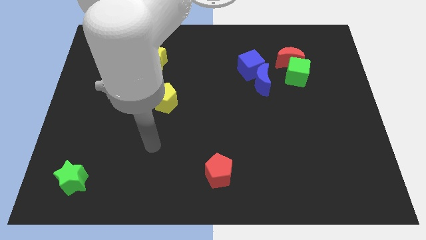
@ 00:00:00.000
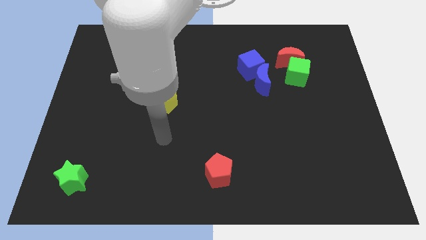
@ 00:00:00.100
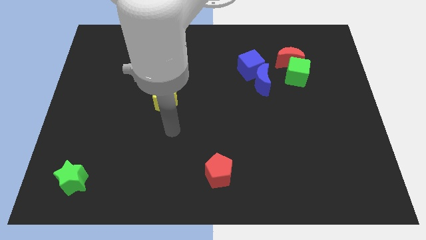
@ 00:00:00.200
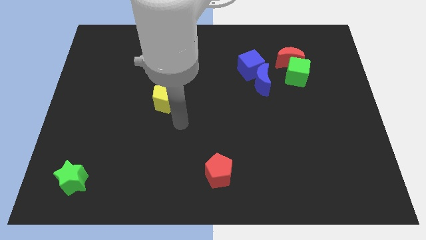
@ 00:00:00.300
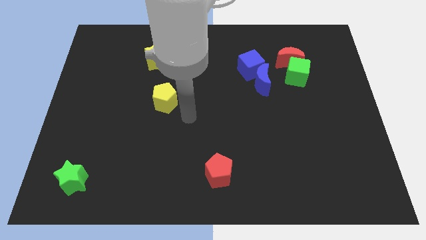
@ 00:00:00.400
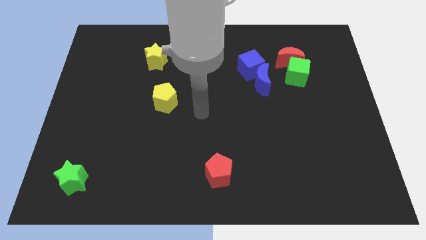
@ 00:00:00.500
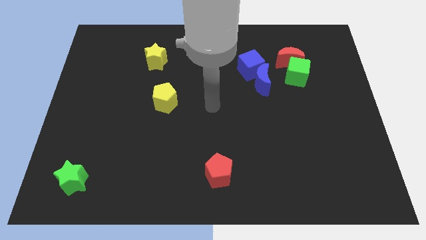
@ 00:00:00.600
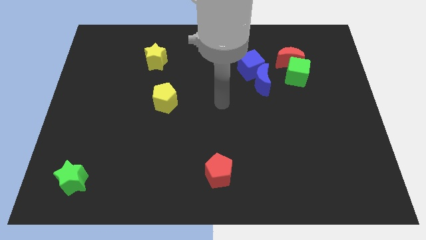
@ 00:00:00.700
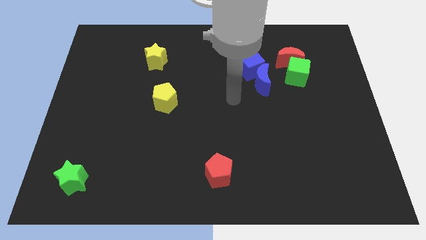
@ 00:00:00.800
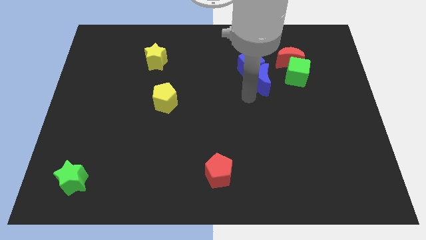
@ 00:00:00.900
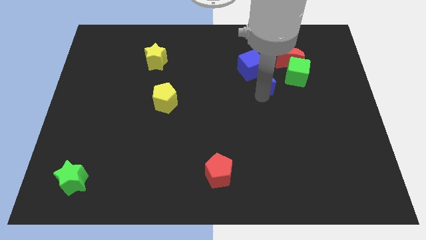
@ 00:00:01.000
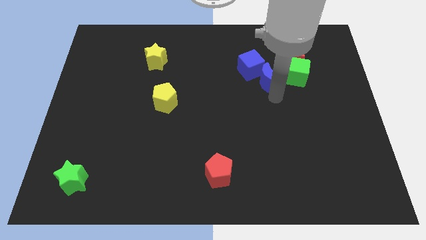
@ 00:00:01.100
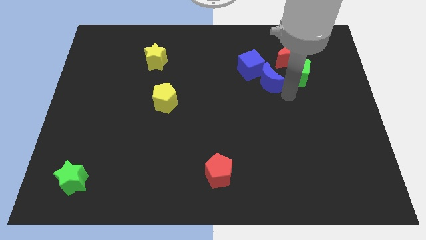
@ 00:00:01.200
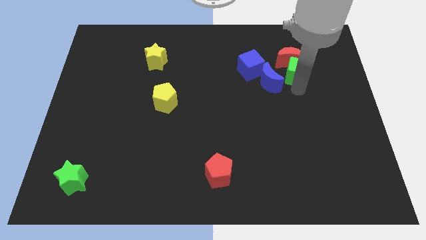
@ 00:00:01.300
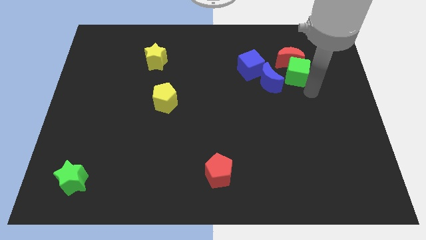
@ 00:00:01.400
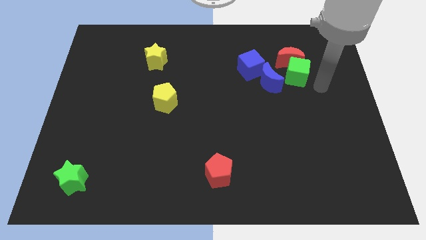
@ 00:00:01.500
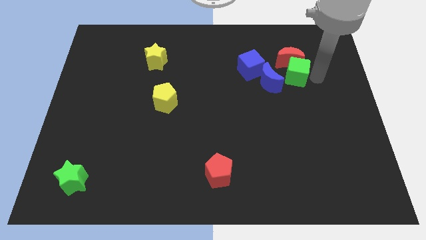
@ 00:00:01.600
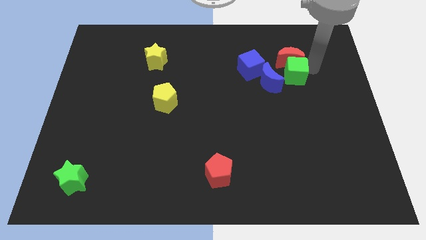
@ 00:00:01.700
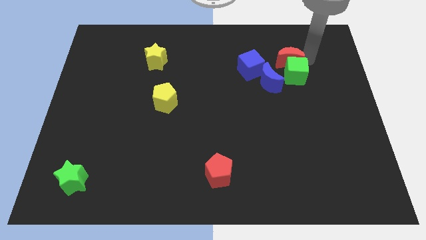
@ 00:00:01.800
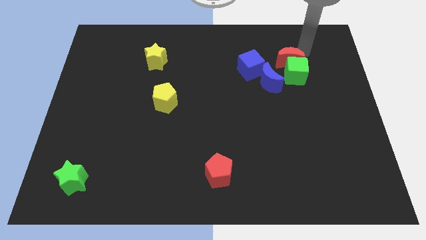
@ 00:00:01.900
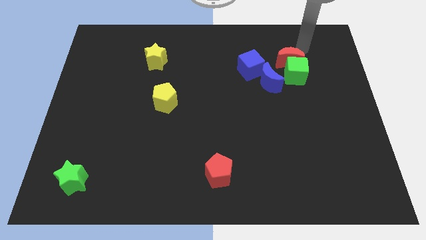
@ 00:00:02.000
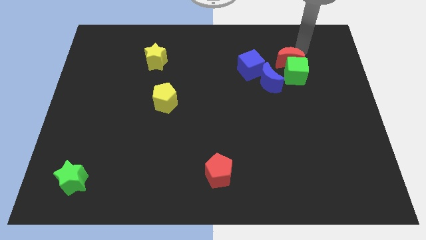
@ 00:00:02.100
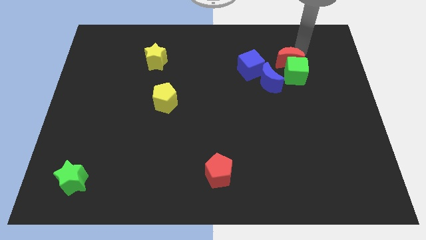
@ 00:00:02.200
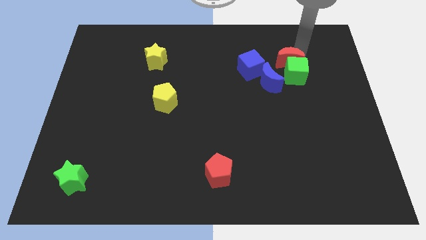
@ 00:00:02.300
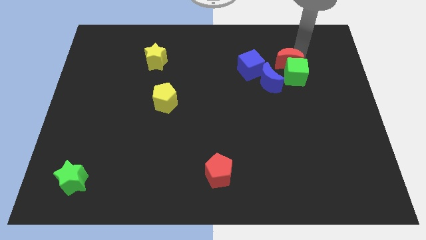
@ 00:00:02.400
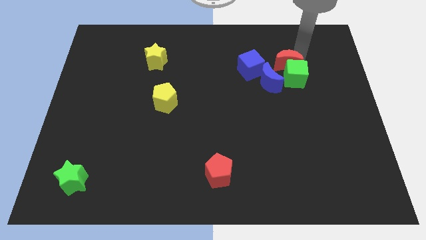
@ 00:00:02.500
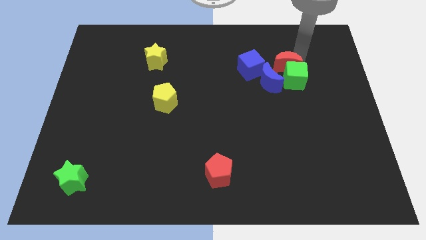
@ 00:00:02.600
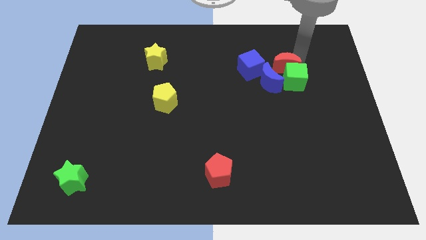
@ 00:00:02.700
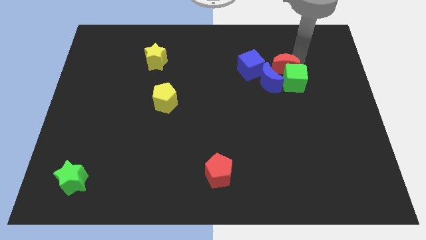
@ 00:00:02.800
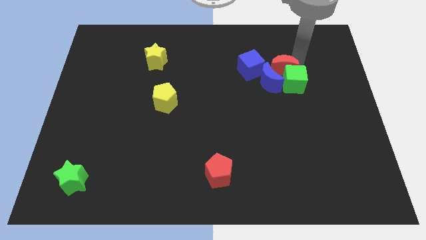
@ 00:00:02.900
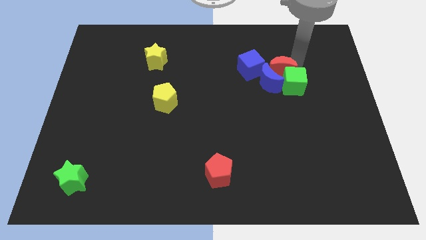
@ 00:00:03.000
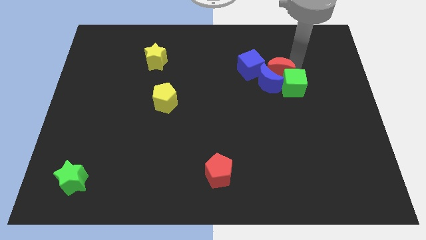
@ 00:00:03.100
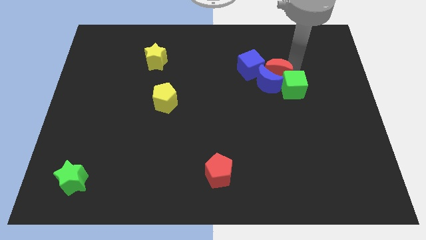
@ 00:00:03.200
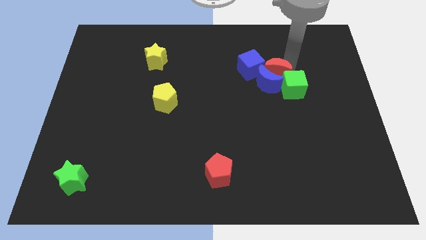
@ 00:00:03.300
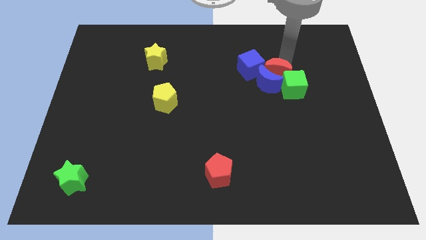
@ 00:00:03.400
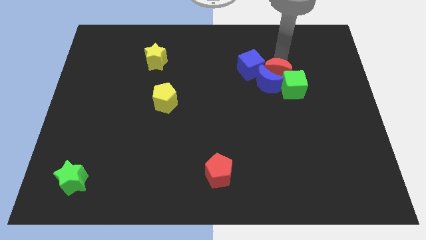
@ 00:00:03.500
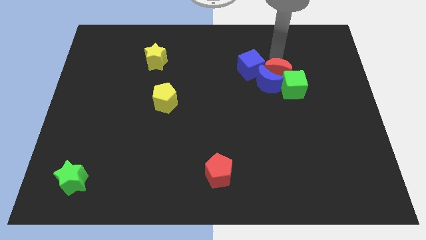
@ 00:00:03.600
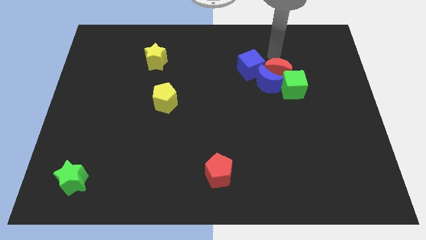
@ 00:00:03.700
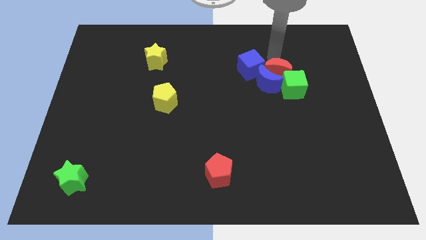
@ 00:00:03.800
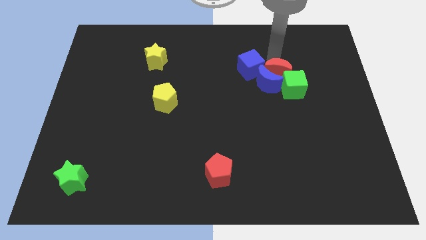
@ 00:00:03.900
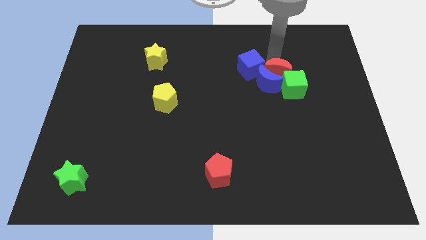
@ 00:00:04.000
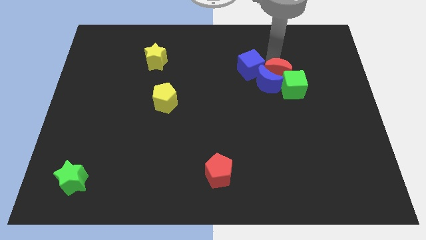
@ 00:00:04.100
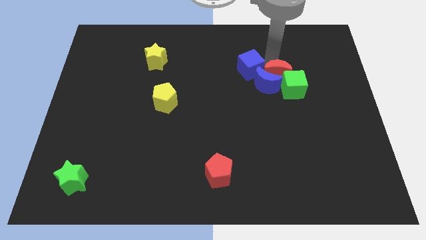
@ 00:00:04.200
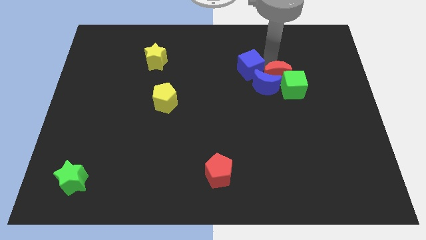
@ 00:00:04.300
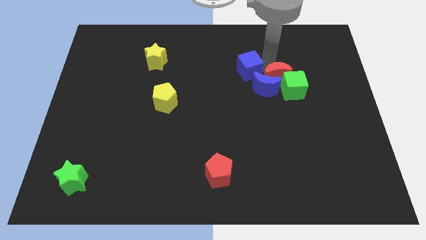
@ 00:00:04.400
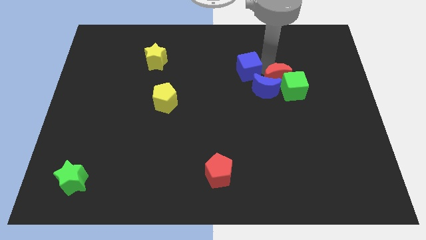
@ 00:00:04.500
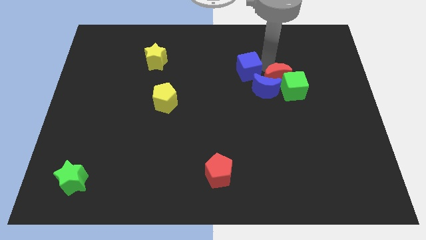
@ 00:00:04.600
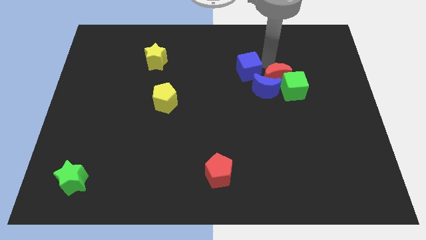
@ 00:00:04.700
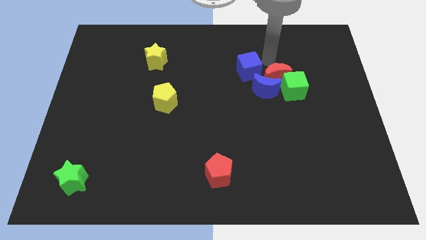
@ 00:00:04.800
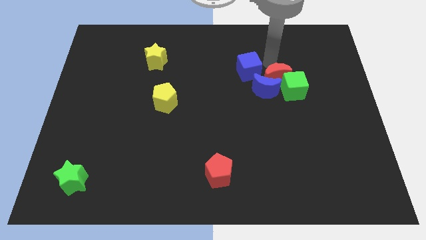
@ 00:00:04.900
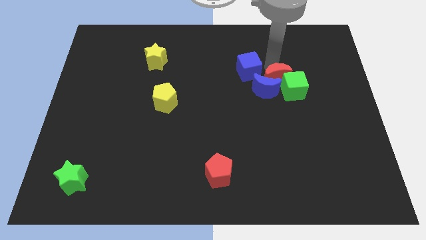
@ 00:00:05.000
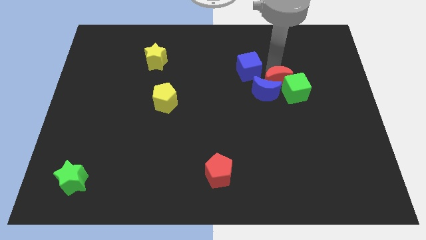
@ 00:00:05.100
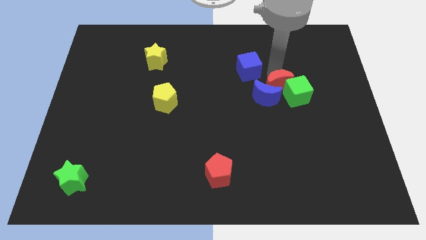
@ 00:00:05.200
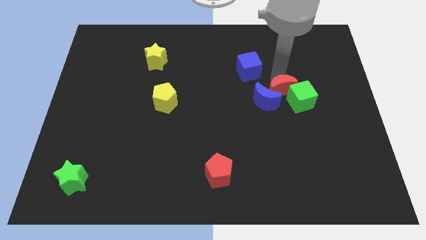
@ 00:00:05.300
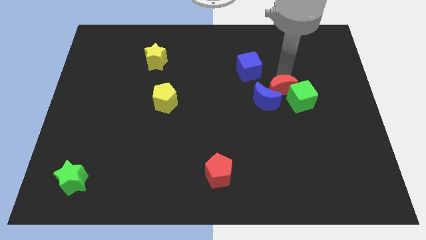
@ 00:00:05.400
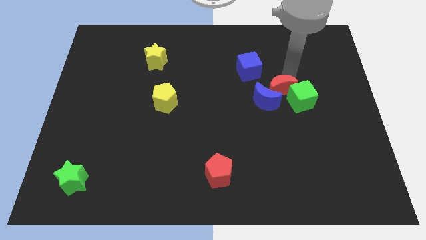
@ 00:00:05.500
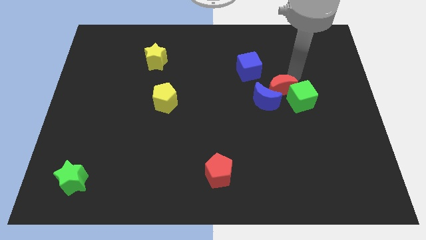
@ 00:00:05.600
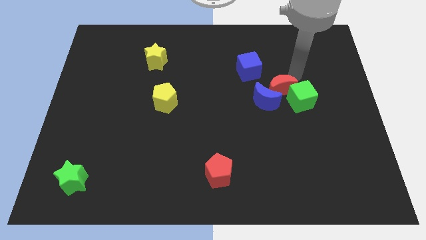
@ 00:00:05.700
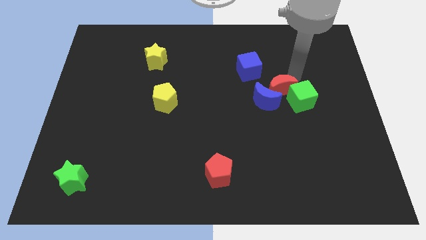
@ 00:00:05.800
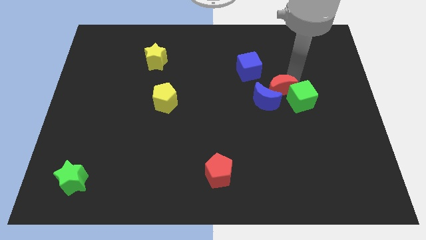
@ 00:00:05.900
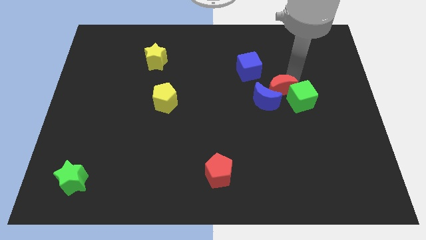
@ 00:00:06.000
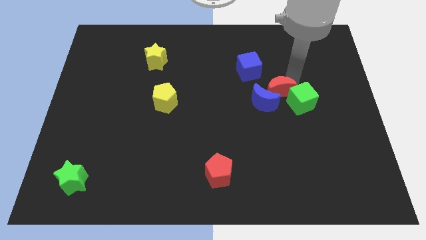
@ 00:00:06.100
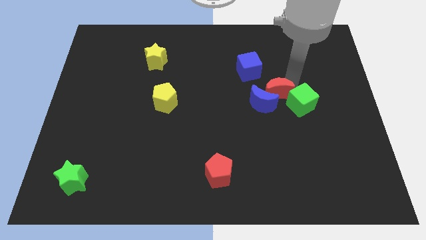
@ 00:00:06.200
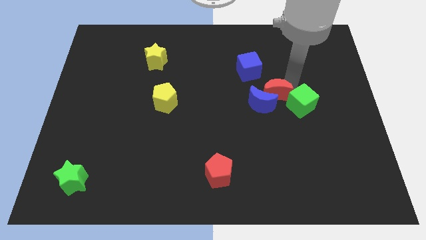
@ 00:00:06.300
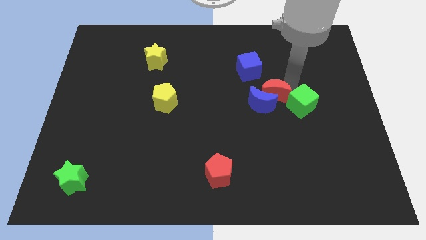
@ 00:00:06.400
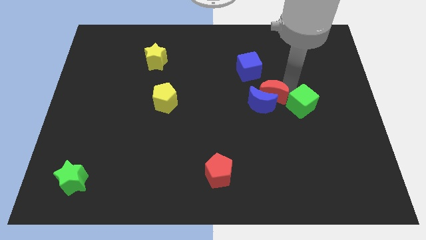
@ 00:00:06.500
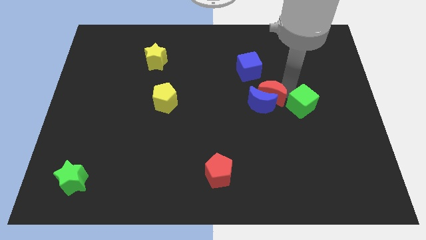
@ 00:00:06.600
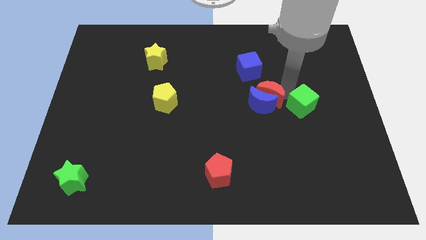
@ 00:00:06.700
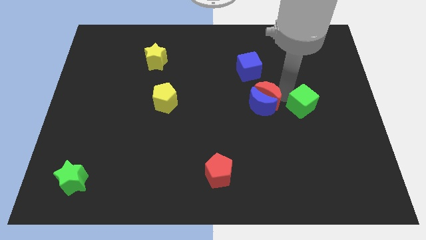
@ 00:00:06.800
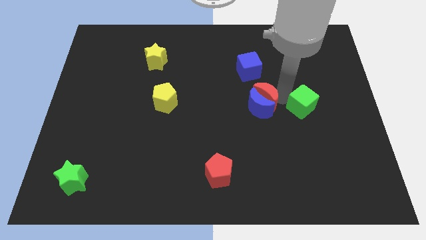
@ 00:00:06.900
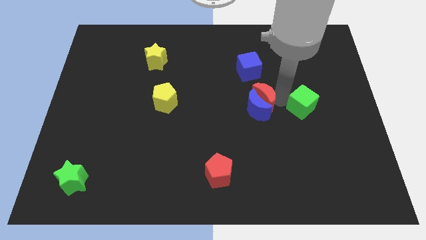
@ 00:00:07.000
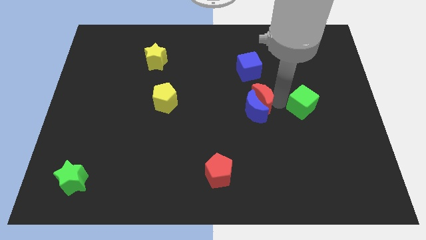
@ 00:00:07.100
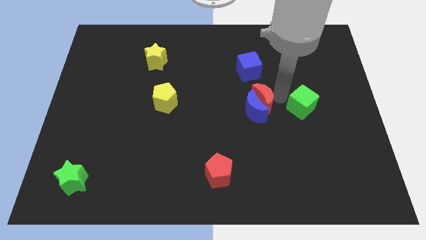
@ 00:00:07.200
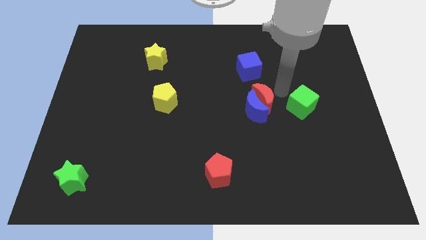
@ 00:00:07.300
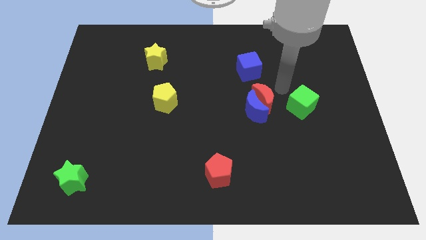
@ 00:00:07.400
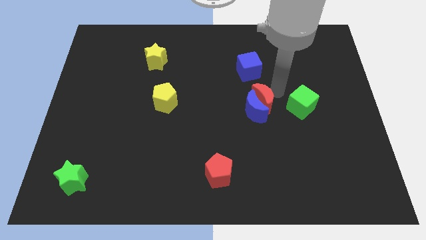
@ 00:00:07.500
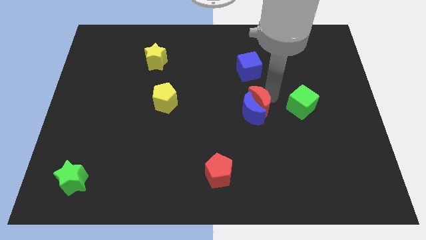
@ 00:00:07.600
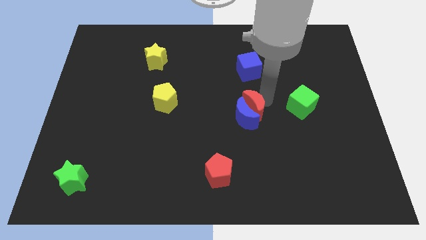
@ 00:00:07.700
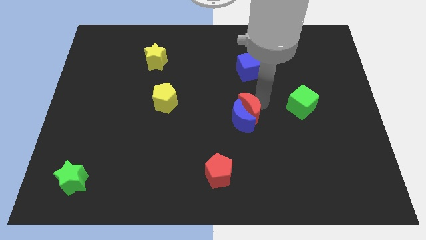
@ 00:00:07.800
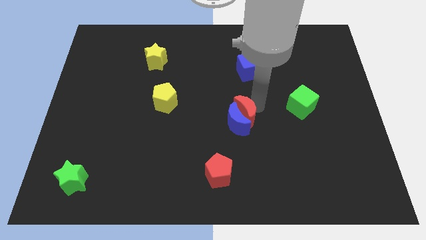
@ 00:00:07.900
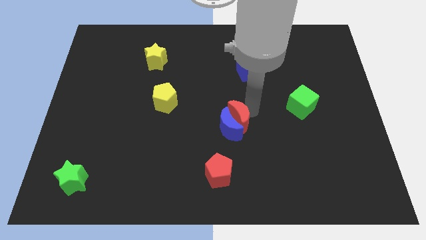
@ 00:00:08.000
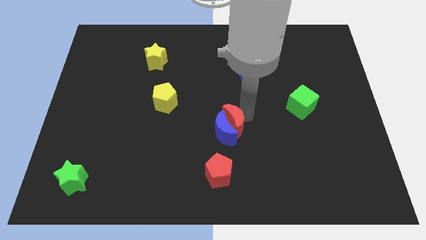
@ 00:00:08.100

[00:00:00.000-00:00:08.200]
slide the red moon above the red pentagon

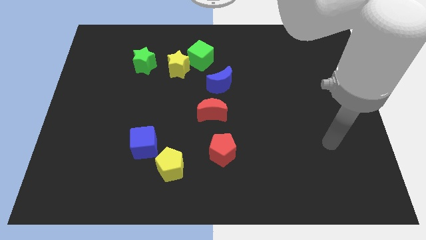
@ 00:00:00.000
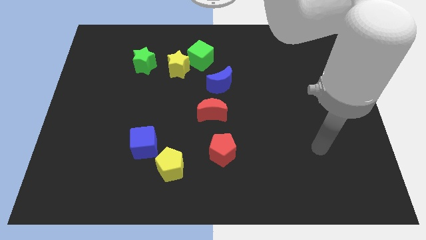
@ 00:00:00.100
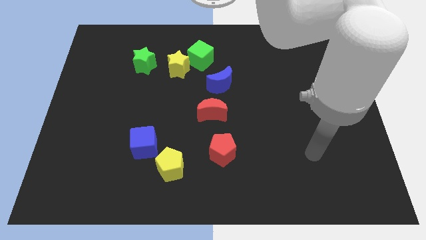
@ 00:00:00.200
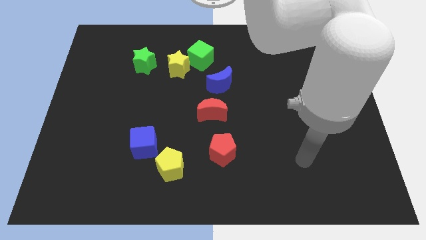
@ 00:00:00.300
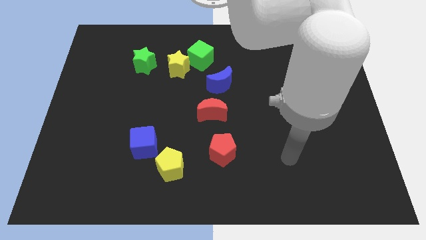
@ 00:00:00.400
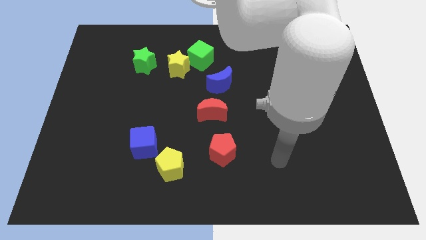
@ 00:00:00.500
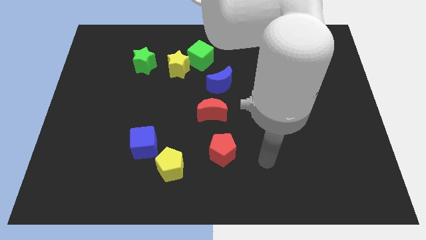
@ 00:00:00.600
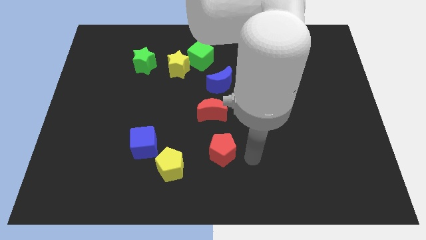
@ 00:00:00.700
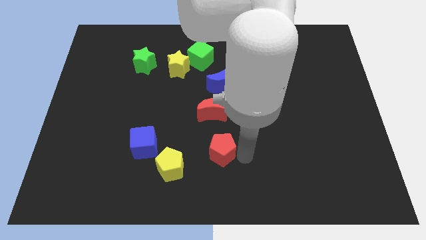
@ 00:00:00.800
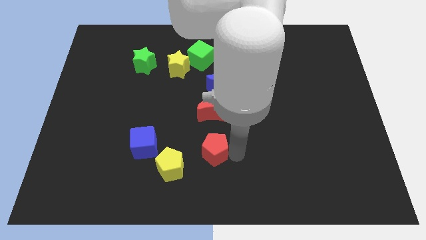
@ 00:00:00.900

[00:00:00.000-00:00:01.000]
slide the red pentagon to the right of the blue cube
